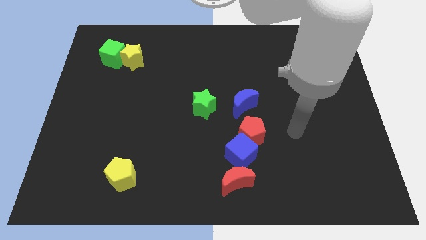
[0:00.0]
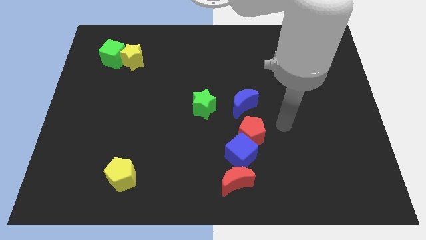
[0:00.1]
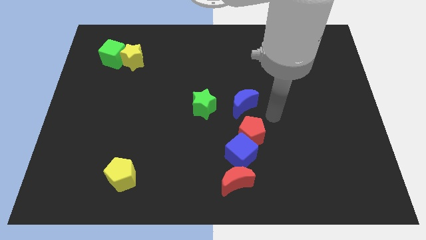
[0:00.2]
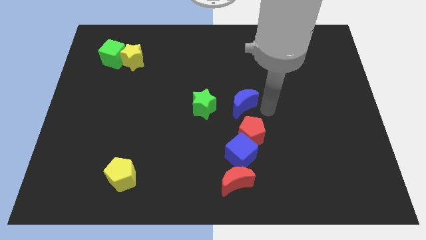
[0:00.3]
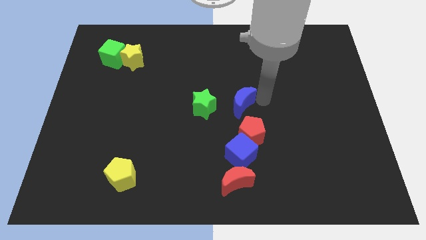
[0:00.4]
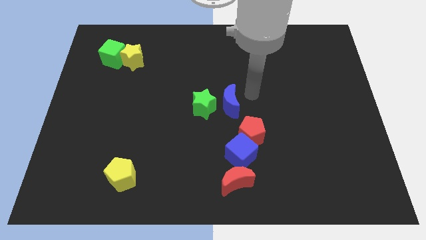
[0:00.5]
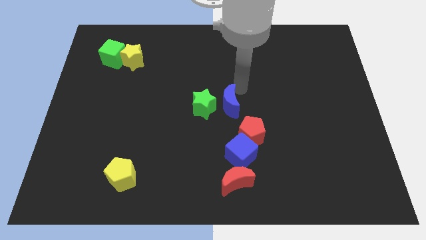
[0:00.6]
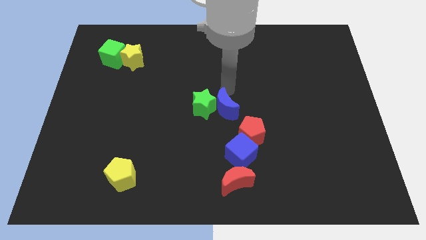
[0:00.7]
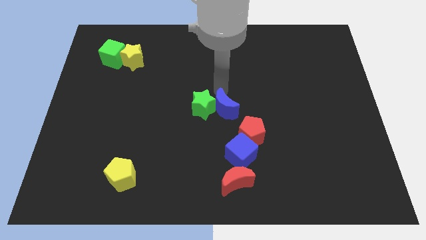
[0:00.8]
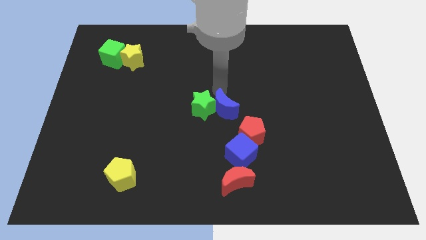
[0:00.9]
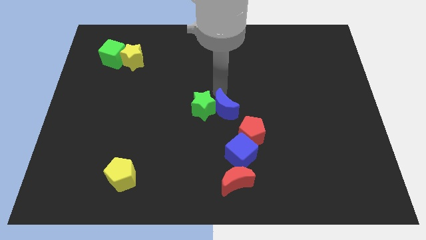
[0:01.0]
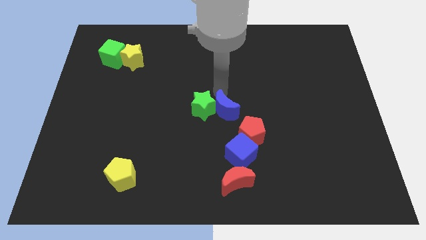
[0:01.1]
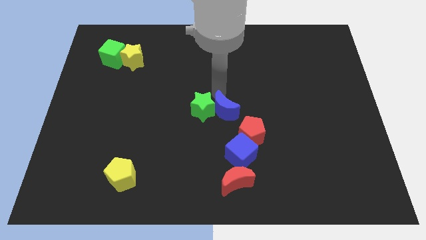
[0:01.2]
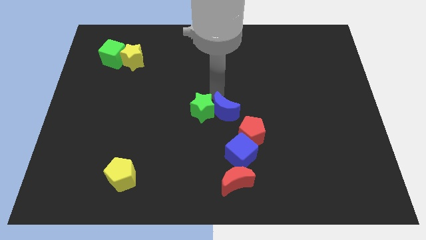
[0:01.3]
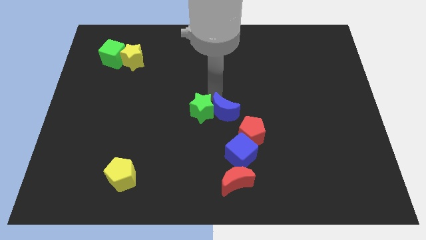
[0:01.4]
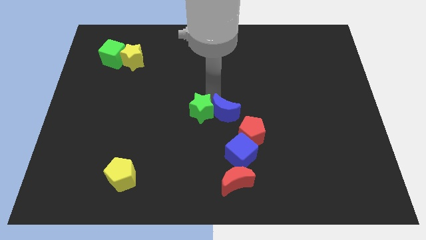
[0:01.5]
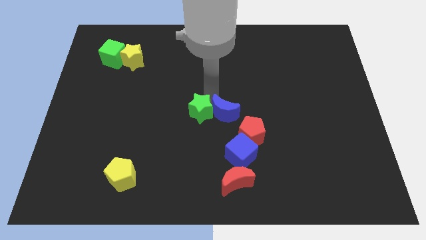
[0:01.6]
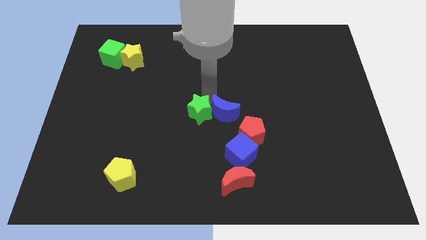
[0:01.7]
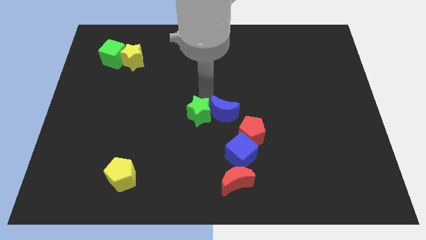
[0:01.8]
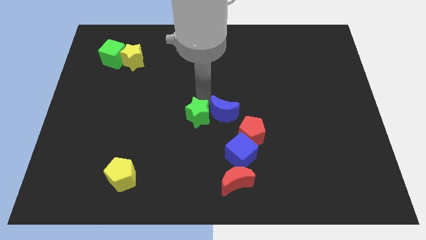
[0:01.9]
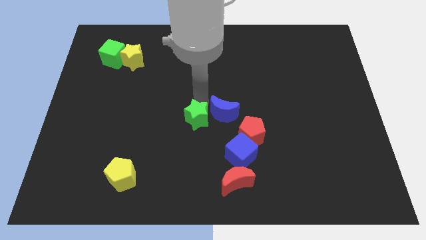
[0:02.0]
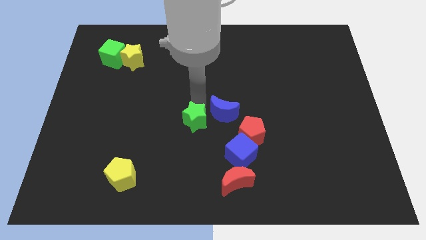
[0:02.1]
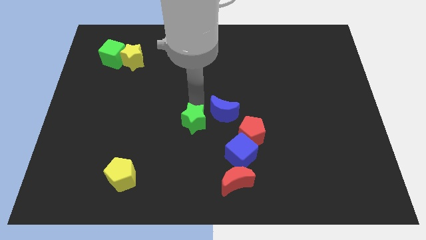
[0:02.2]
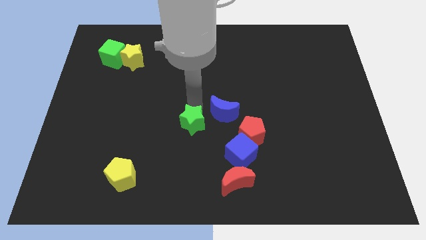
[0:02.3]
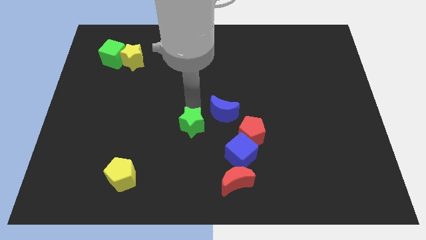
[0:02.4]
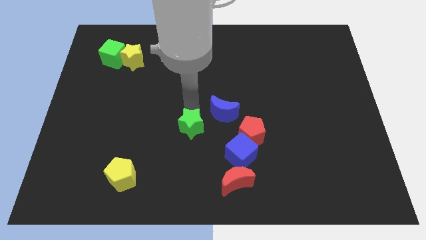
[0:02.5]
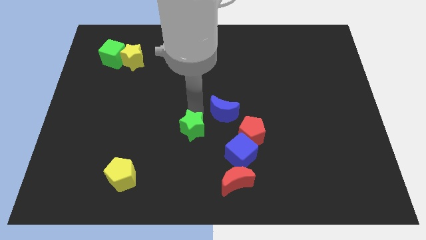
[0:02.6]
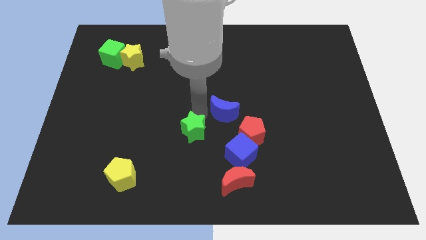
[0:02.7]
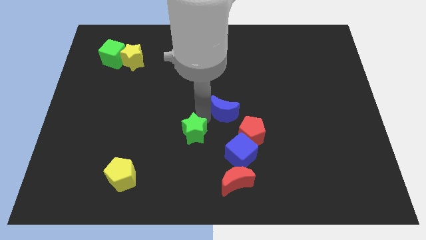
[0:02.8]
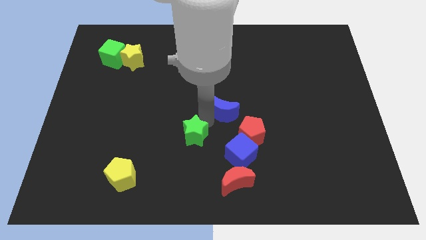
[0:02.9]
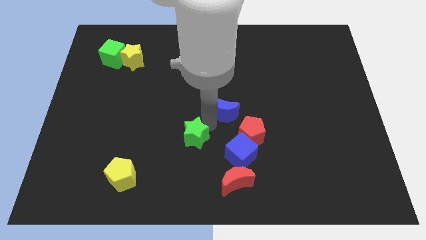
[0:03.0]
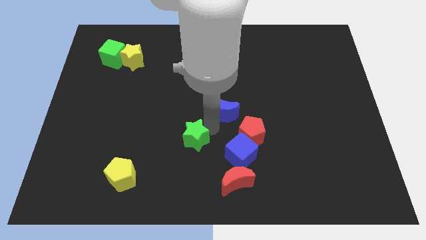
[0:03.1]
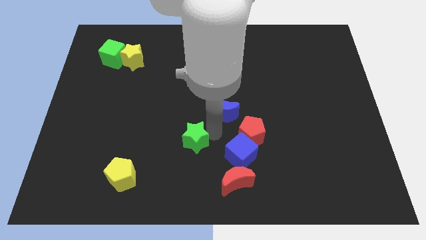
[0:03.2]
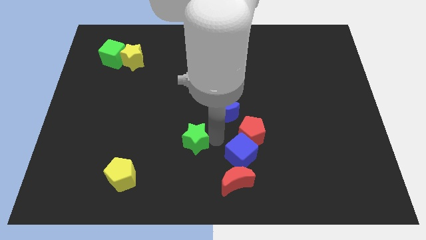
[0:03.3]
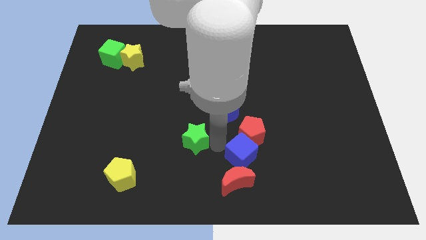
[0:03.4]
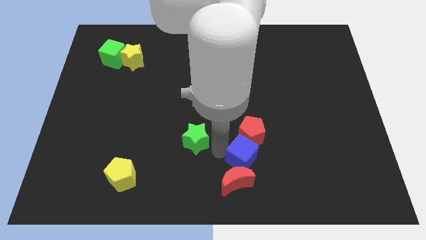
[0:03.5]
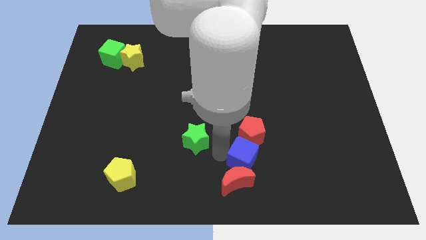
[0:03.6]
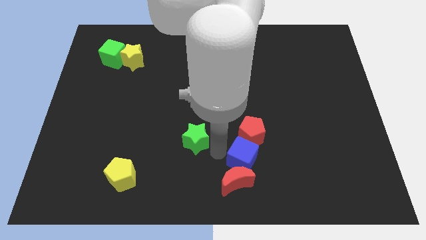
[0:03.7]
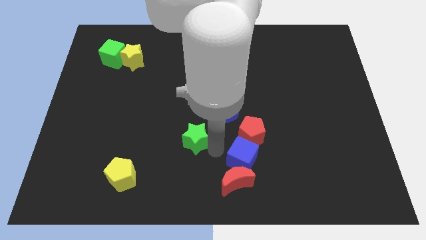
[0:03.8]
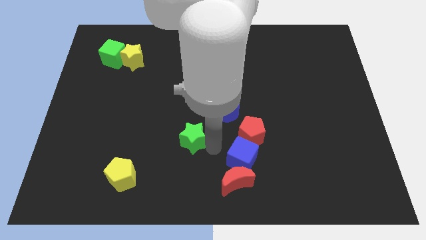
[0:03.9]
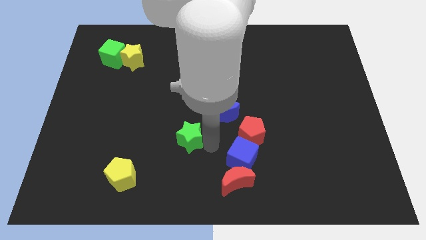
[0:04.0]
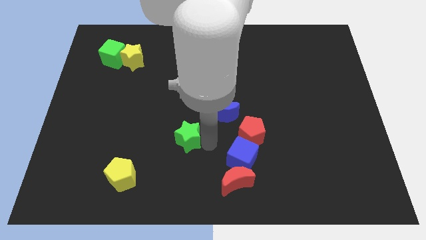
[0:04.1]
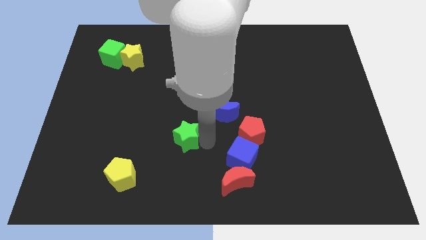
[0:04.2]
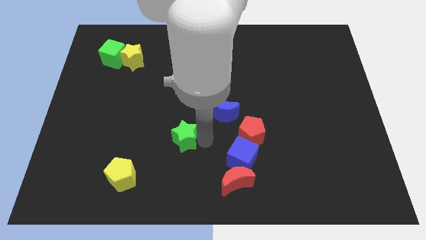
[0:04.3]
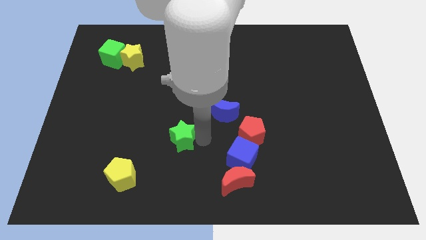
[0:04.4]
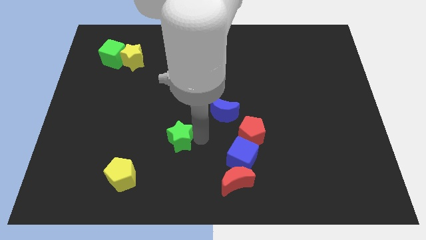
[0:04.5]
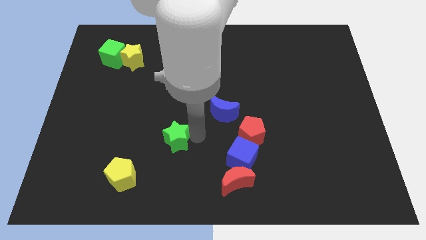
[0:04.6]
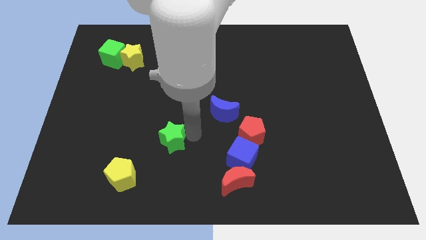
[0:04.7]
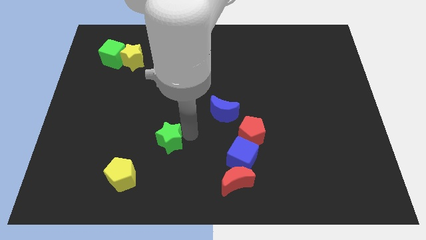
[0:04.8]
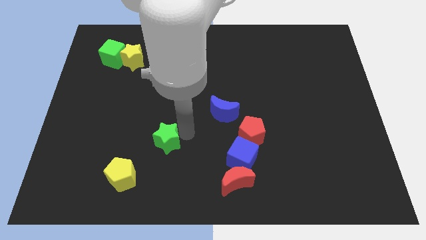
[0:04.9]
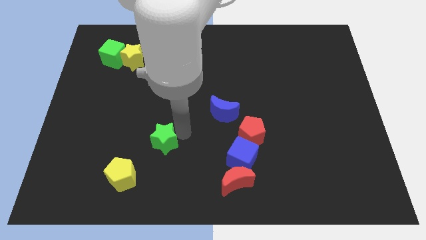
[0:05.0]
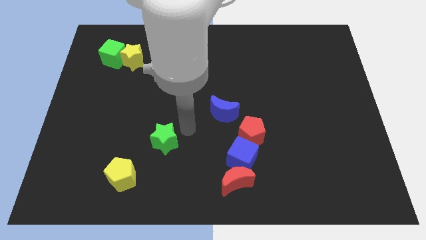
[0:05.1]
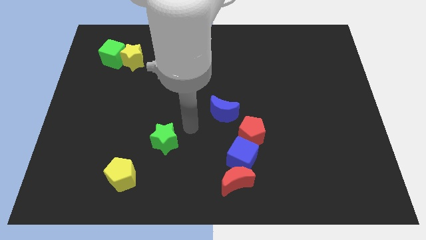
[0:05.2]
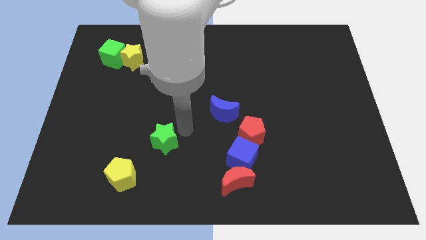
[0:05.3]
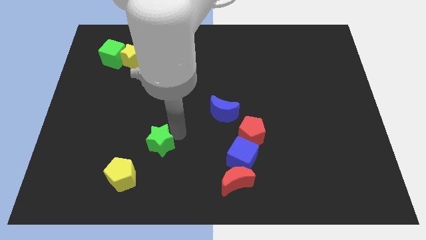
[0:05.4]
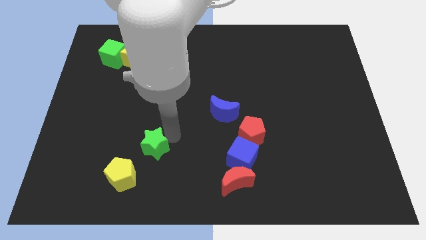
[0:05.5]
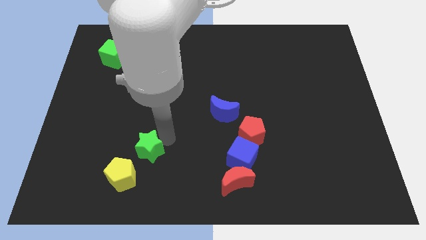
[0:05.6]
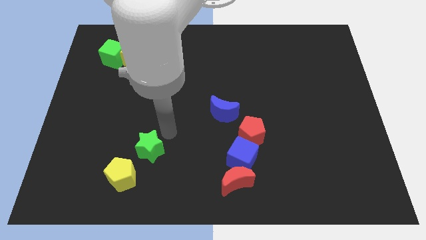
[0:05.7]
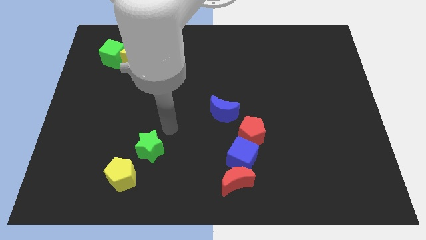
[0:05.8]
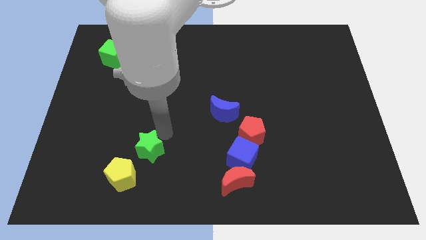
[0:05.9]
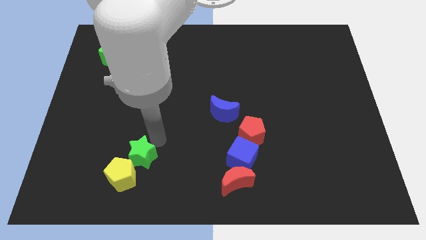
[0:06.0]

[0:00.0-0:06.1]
put the green star towards the yellow pentagon

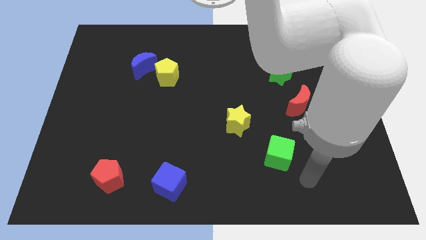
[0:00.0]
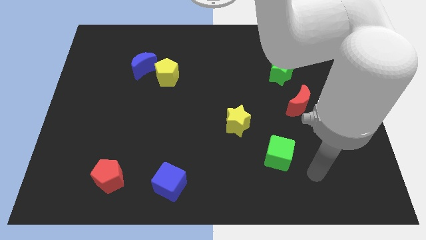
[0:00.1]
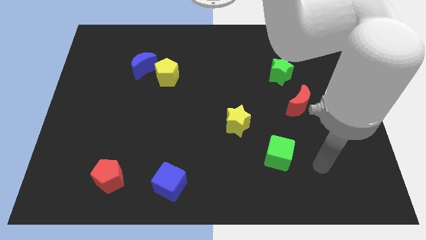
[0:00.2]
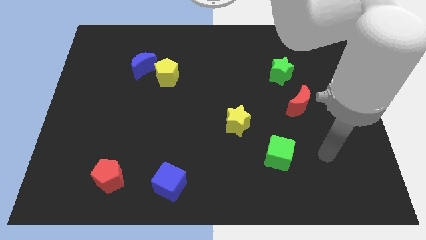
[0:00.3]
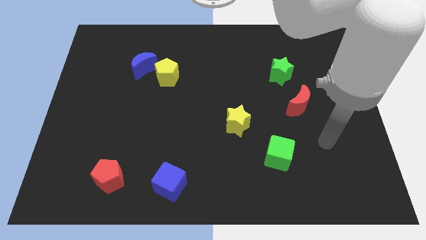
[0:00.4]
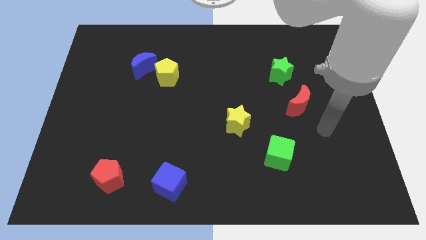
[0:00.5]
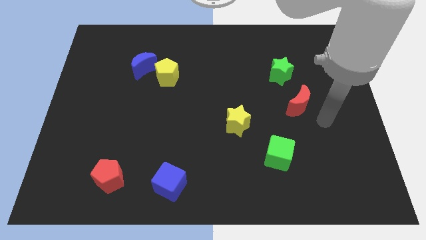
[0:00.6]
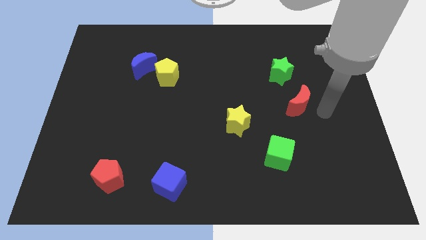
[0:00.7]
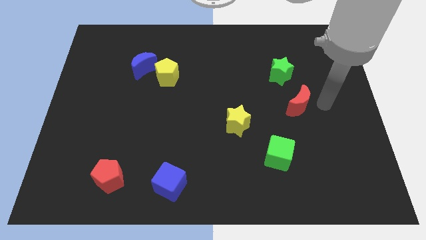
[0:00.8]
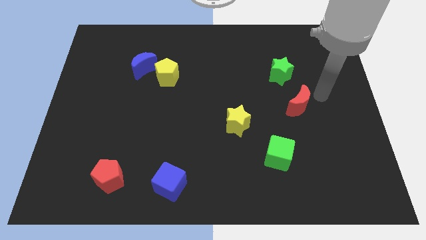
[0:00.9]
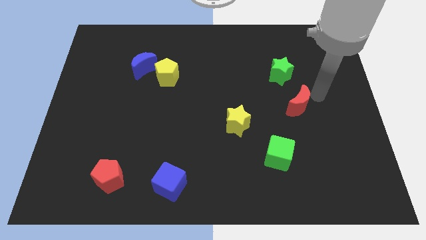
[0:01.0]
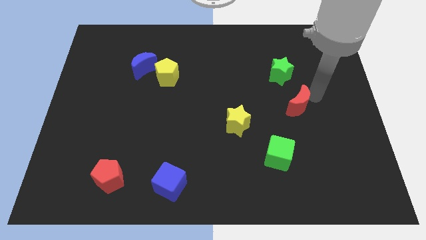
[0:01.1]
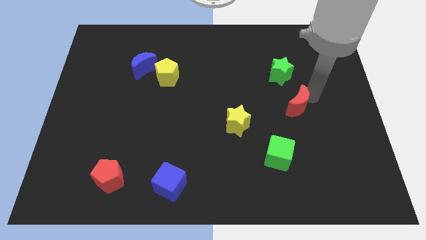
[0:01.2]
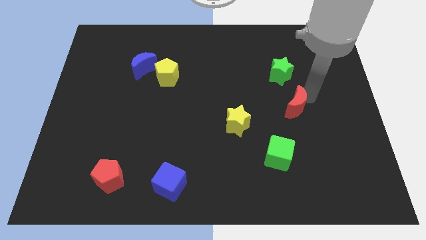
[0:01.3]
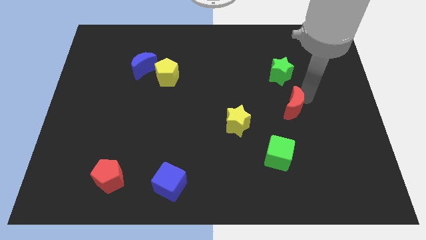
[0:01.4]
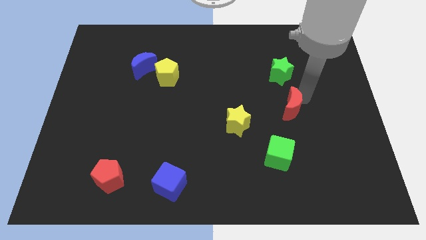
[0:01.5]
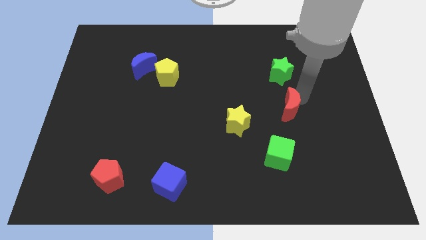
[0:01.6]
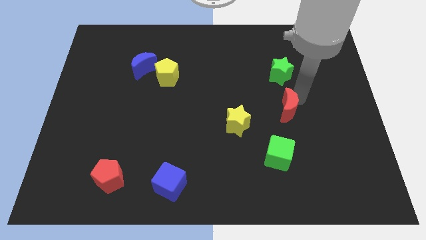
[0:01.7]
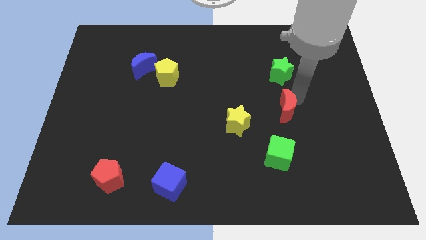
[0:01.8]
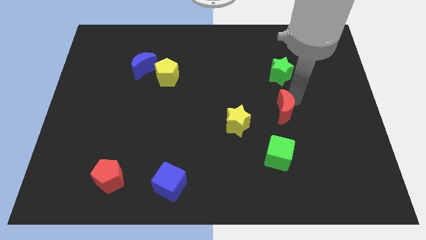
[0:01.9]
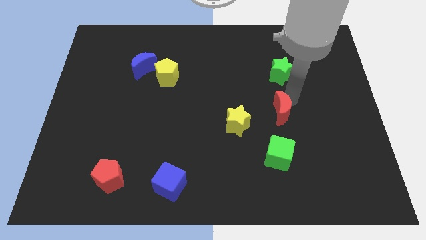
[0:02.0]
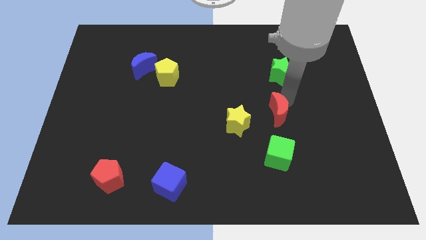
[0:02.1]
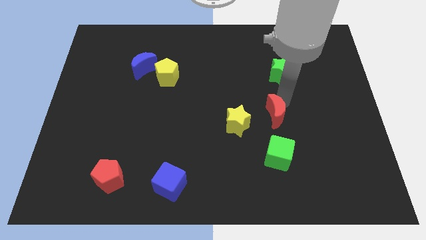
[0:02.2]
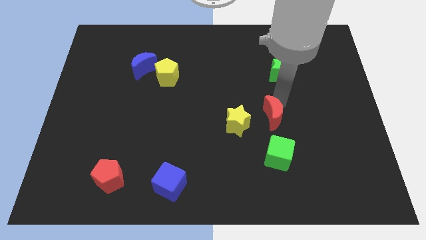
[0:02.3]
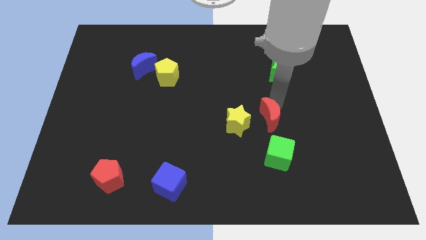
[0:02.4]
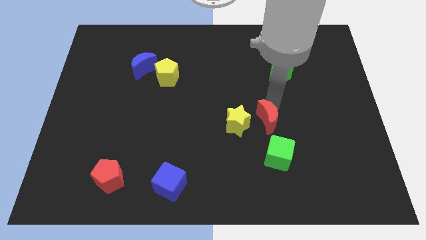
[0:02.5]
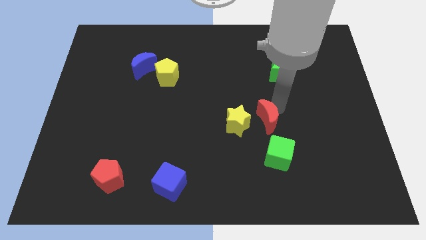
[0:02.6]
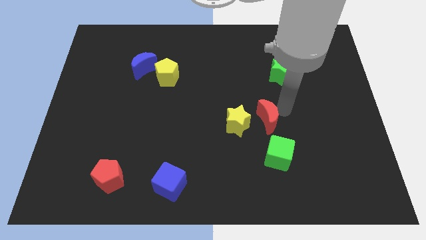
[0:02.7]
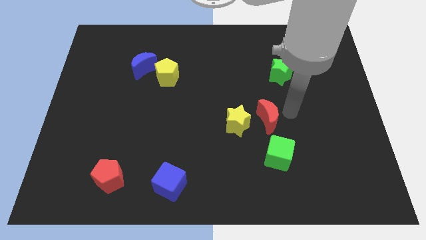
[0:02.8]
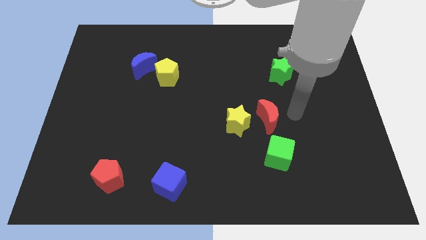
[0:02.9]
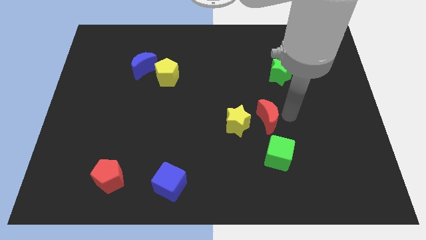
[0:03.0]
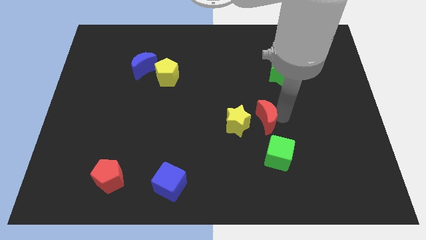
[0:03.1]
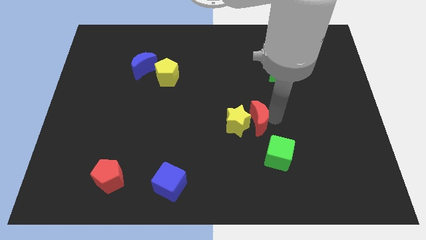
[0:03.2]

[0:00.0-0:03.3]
slide the red moon close to the yellow star
